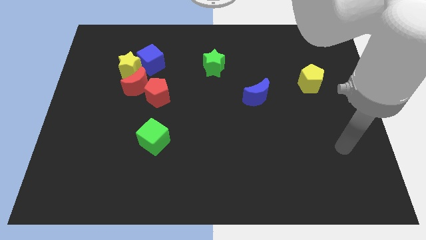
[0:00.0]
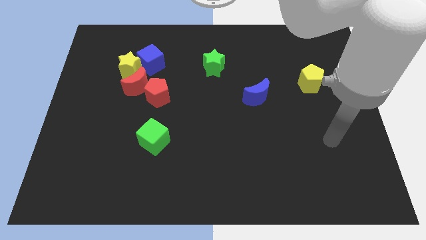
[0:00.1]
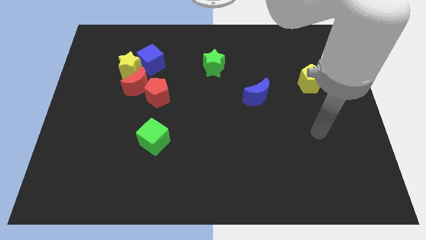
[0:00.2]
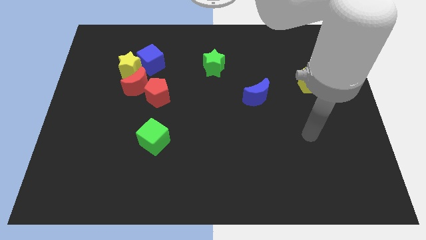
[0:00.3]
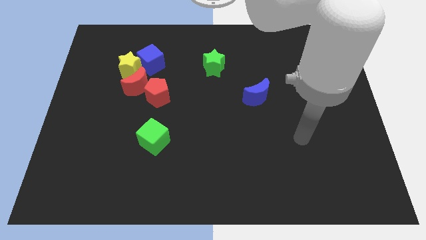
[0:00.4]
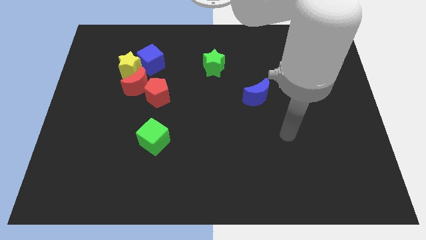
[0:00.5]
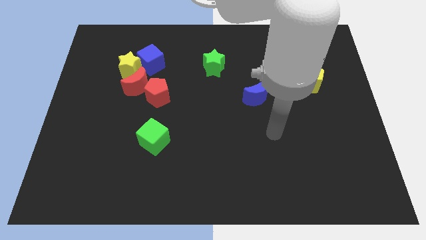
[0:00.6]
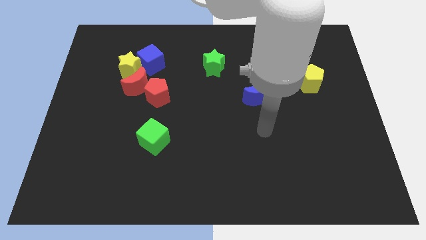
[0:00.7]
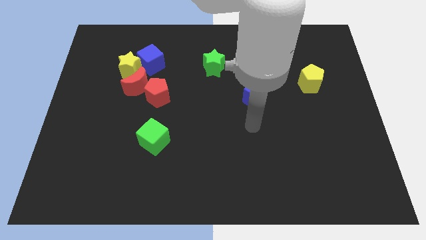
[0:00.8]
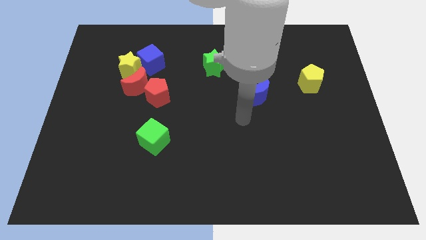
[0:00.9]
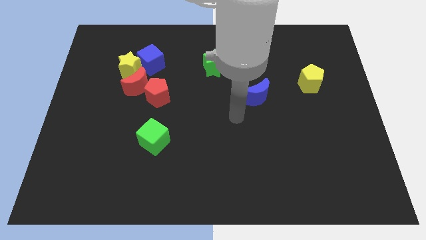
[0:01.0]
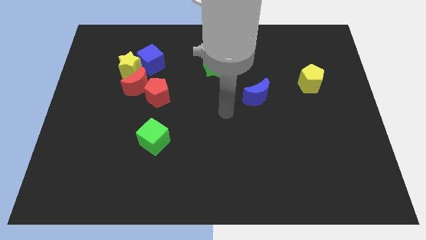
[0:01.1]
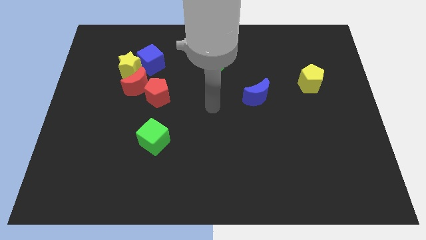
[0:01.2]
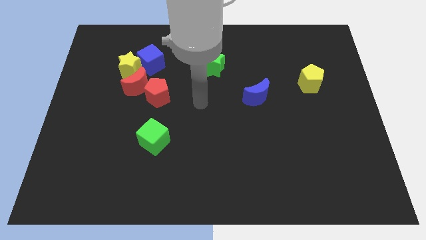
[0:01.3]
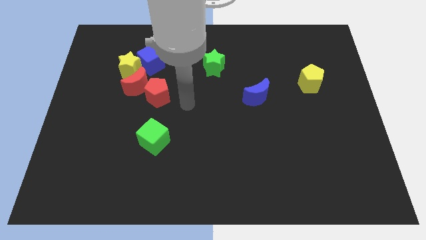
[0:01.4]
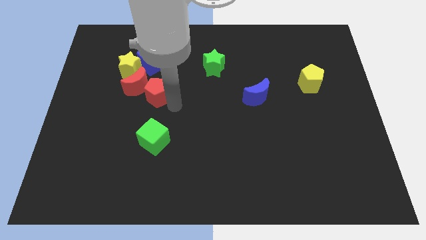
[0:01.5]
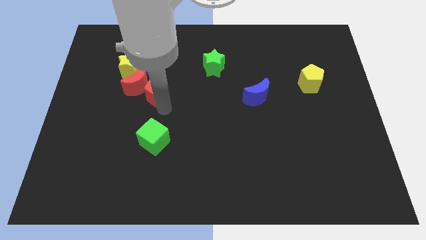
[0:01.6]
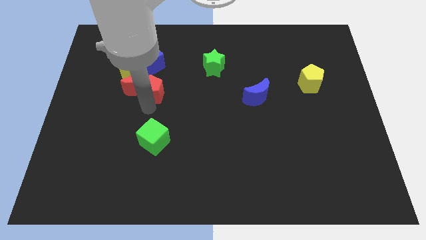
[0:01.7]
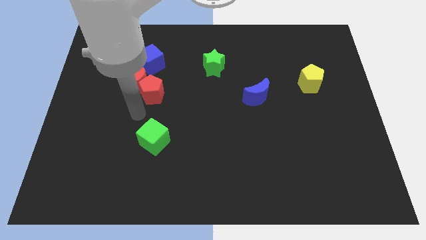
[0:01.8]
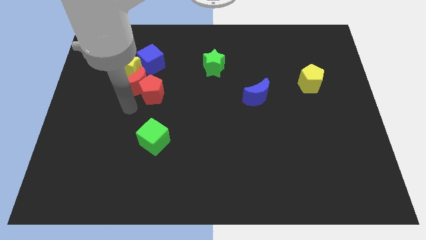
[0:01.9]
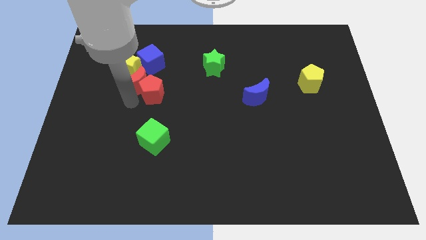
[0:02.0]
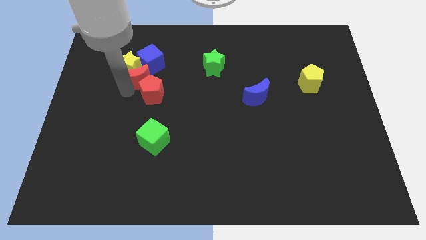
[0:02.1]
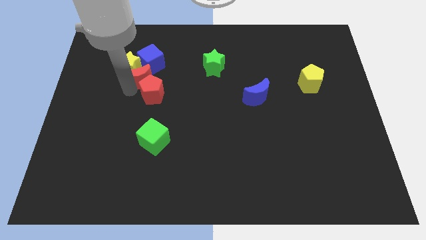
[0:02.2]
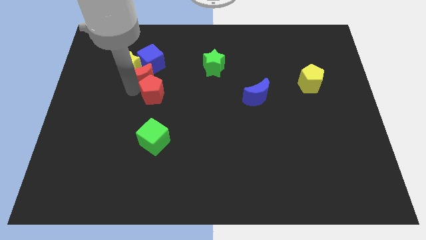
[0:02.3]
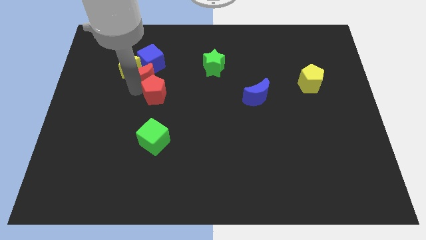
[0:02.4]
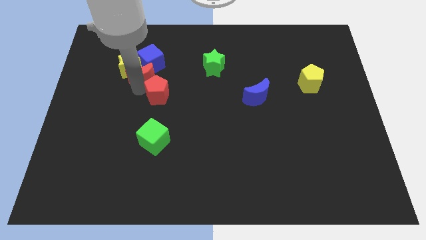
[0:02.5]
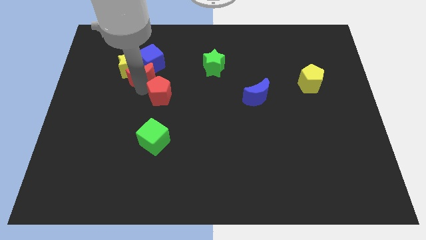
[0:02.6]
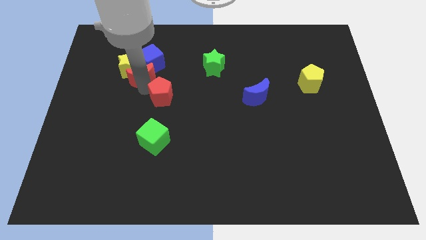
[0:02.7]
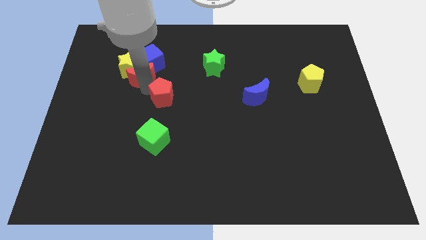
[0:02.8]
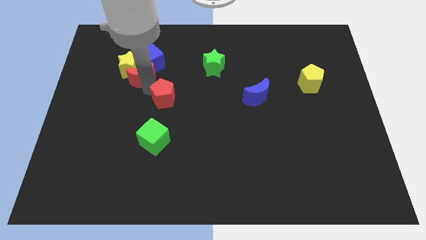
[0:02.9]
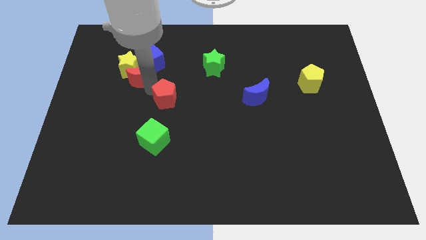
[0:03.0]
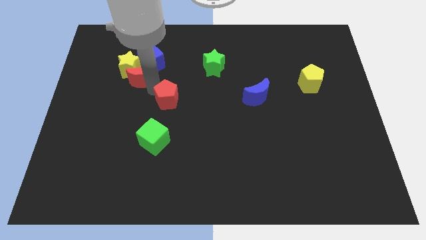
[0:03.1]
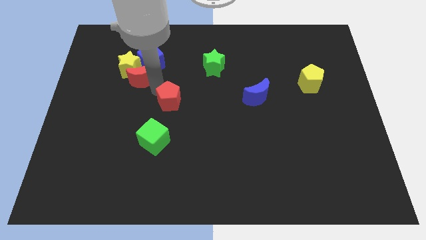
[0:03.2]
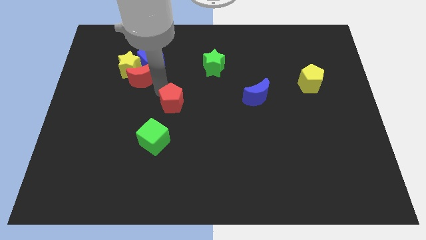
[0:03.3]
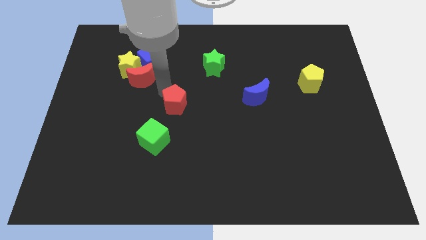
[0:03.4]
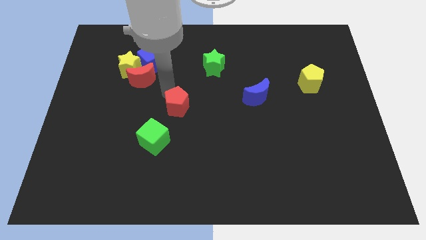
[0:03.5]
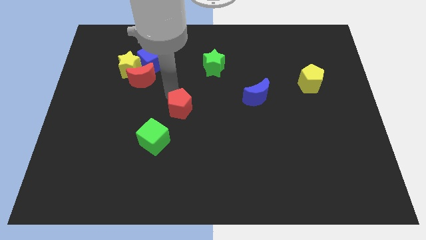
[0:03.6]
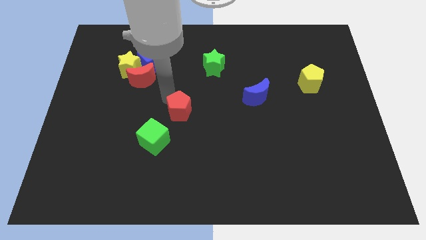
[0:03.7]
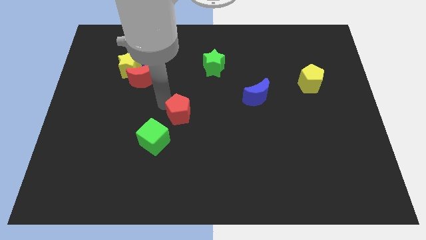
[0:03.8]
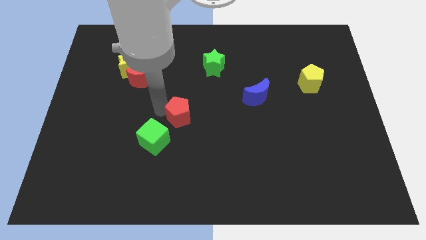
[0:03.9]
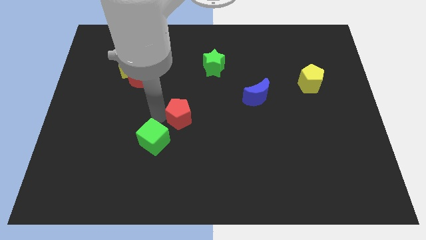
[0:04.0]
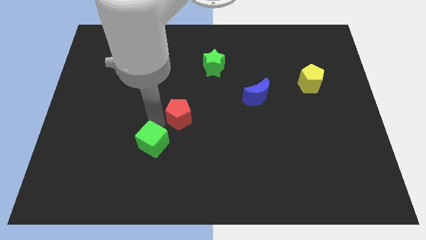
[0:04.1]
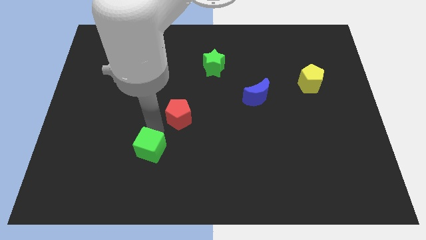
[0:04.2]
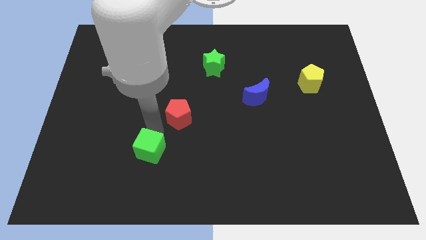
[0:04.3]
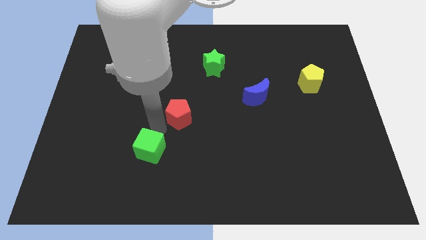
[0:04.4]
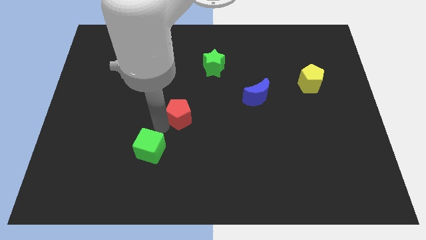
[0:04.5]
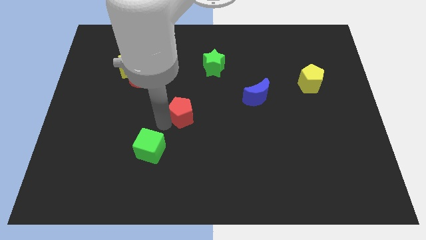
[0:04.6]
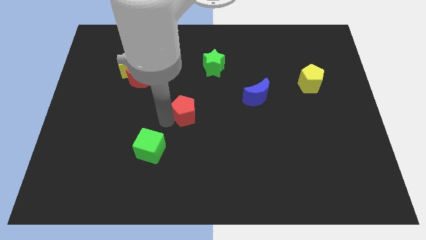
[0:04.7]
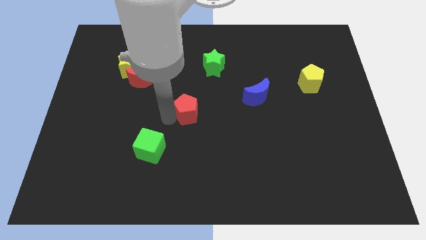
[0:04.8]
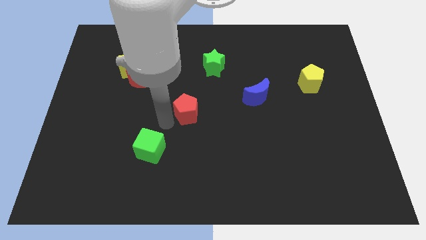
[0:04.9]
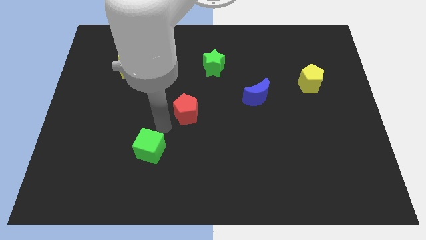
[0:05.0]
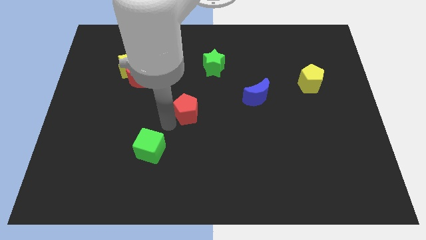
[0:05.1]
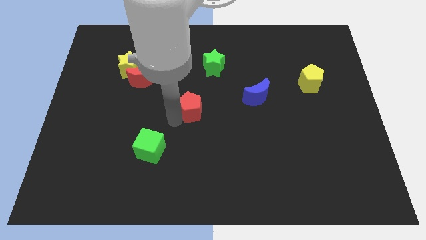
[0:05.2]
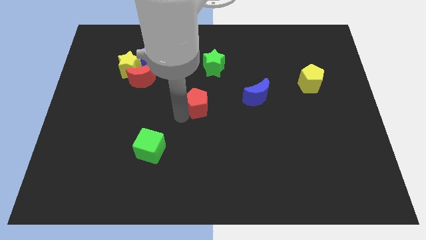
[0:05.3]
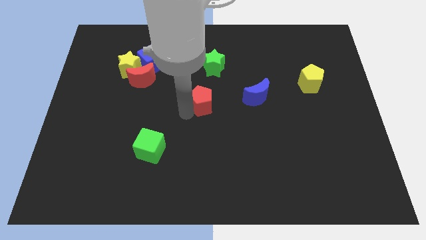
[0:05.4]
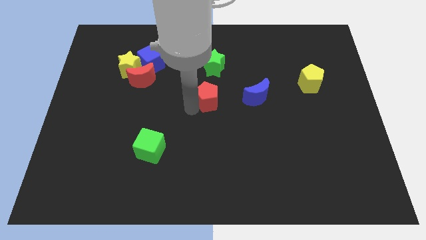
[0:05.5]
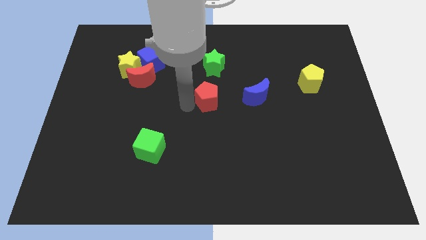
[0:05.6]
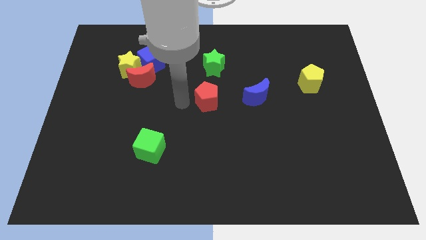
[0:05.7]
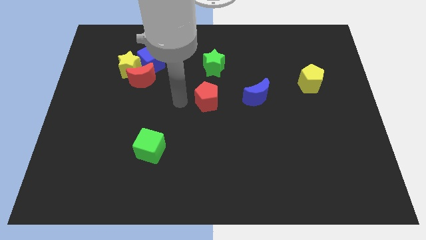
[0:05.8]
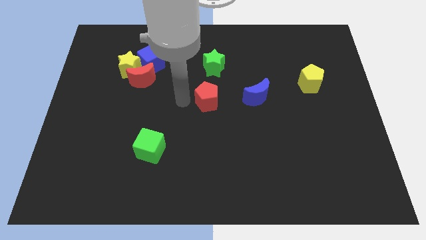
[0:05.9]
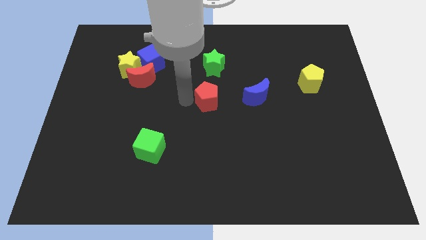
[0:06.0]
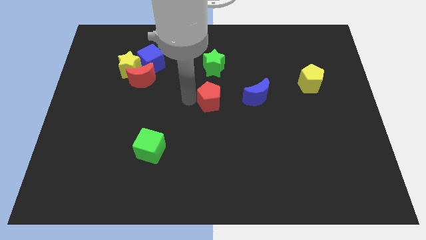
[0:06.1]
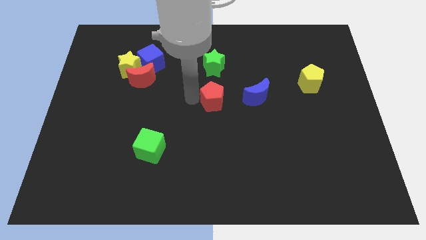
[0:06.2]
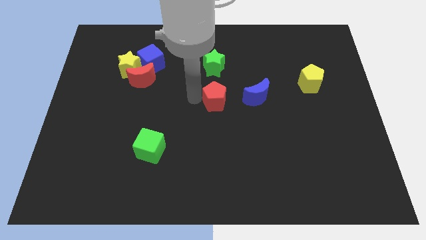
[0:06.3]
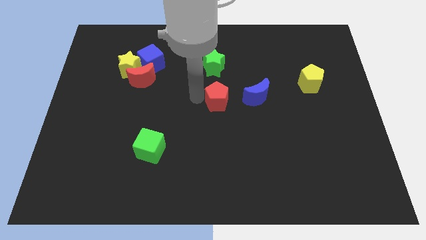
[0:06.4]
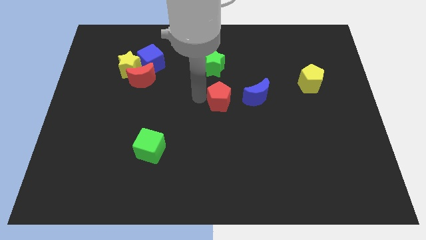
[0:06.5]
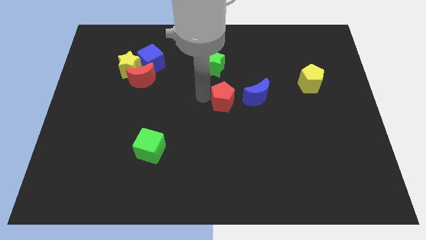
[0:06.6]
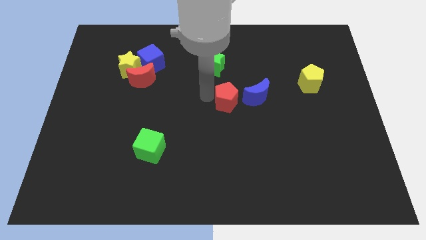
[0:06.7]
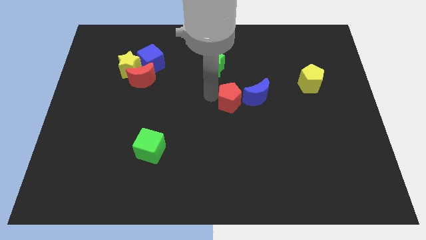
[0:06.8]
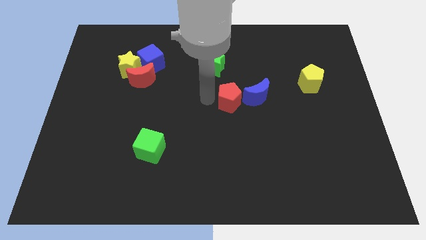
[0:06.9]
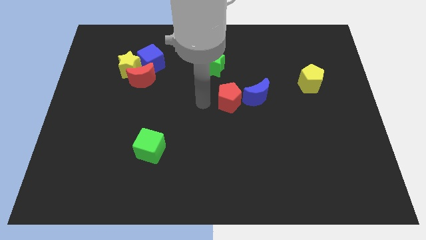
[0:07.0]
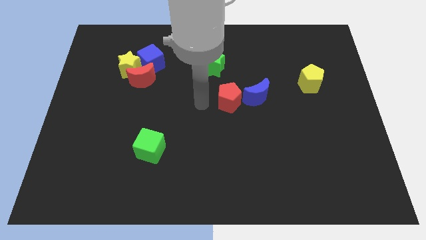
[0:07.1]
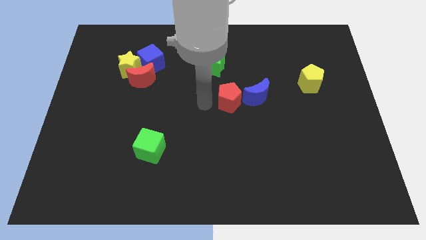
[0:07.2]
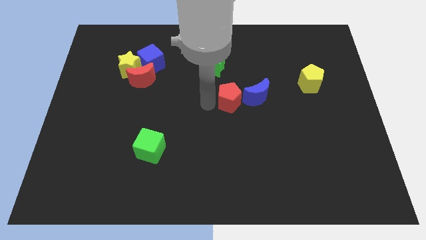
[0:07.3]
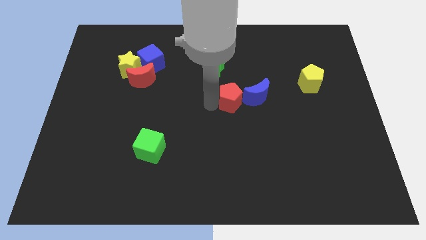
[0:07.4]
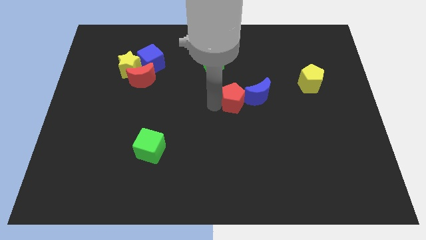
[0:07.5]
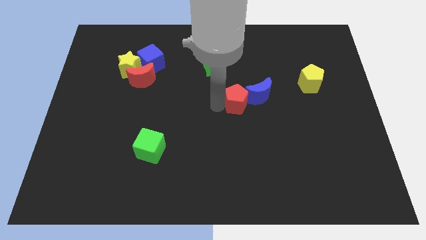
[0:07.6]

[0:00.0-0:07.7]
slide the red pentagon to the blue moon
